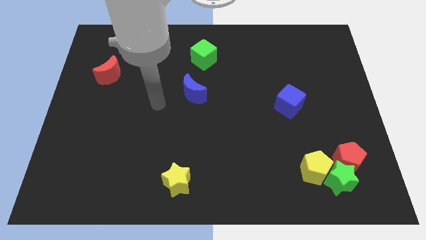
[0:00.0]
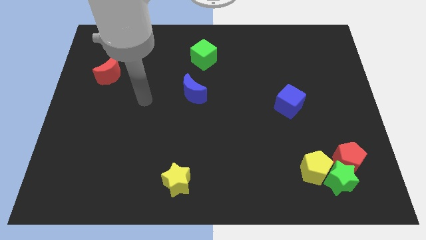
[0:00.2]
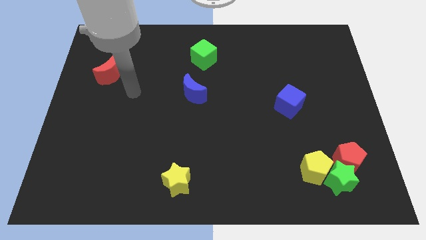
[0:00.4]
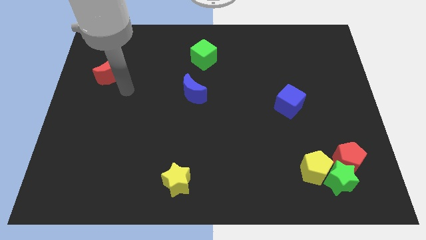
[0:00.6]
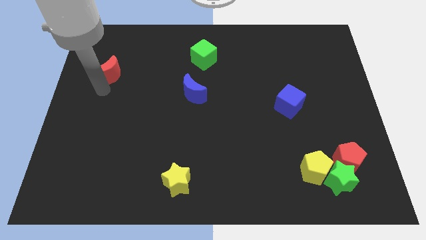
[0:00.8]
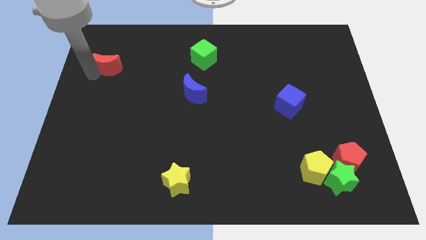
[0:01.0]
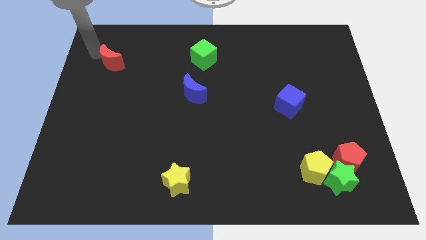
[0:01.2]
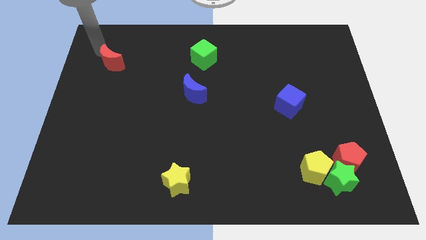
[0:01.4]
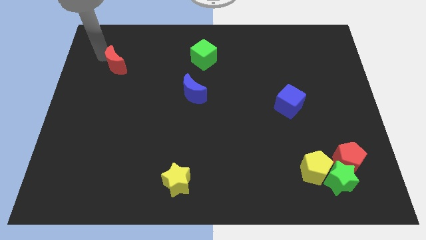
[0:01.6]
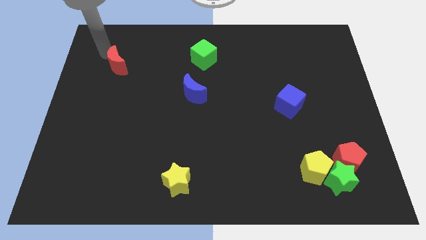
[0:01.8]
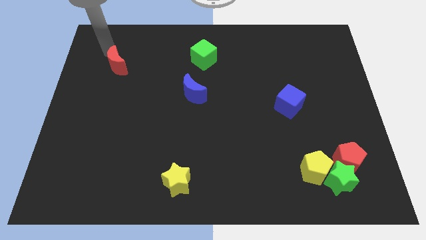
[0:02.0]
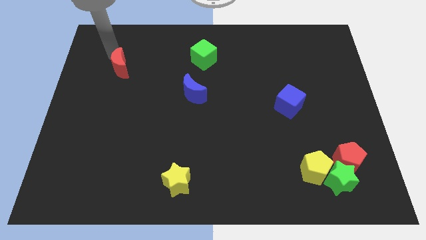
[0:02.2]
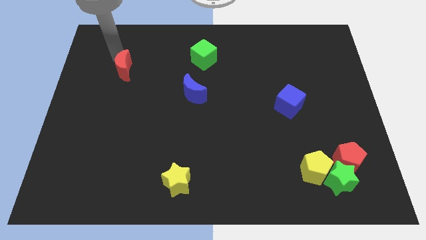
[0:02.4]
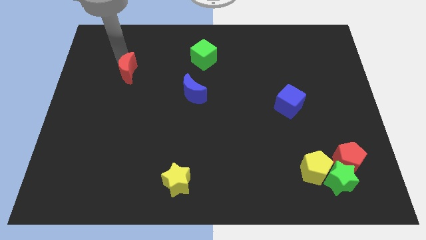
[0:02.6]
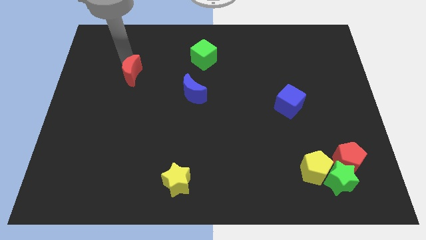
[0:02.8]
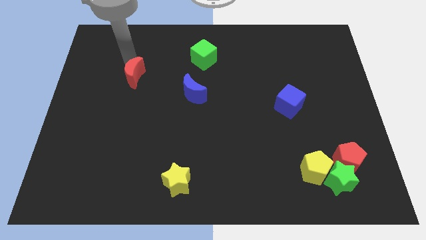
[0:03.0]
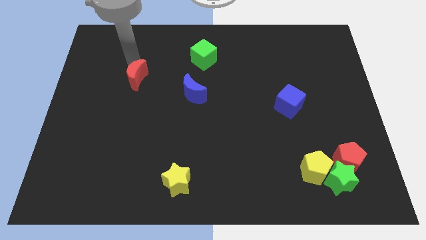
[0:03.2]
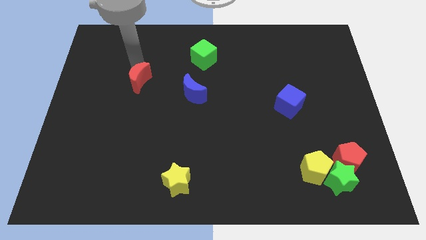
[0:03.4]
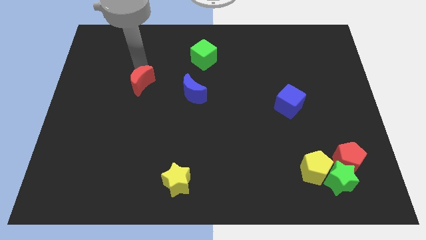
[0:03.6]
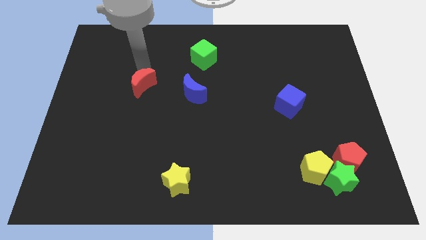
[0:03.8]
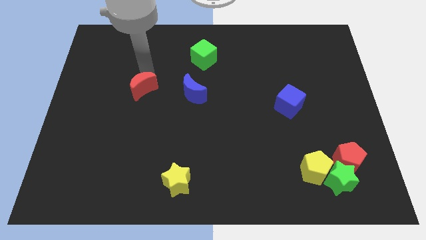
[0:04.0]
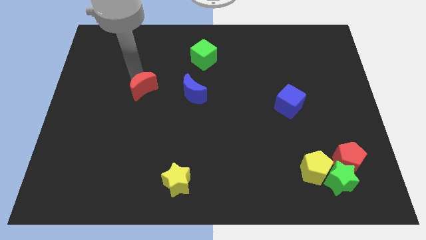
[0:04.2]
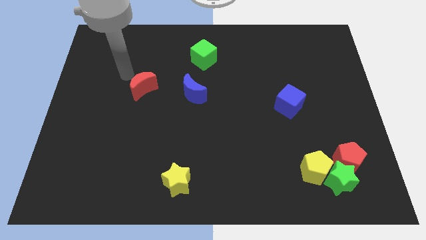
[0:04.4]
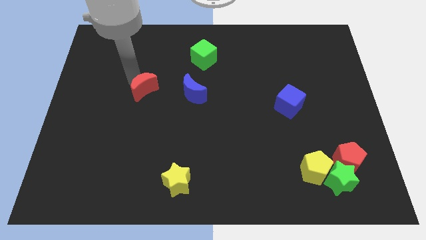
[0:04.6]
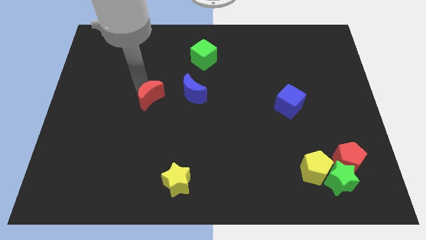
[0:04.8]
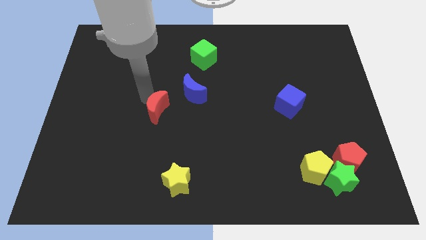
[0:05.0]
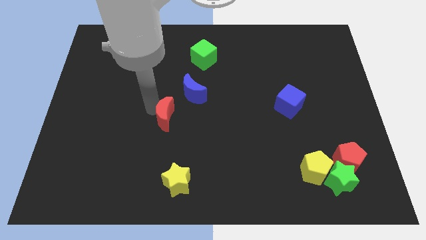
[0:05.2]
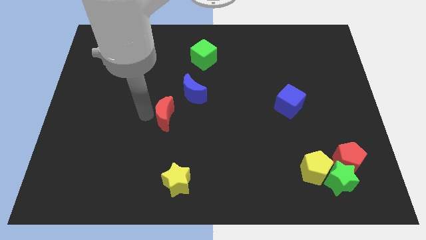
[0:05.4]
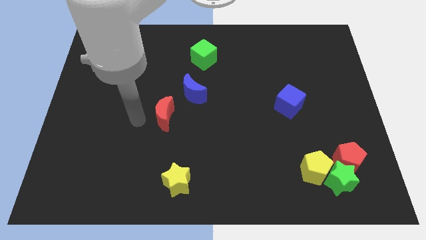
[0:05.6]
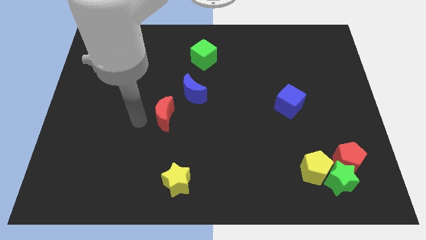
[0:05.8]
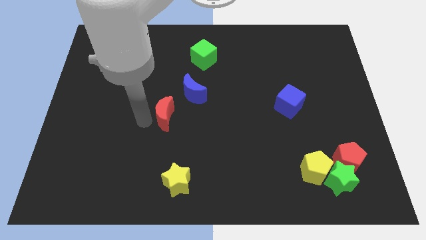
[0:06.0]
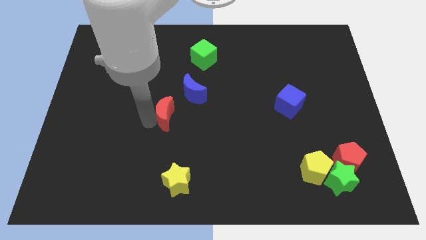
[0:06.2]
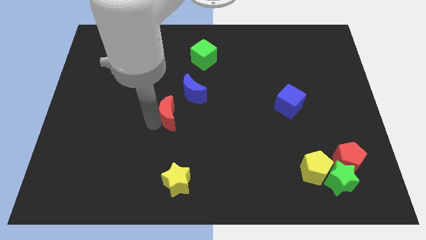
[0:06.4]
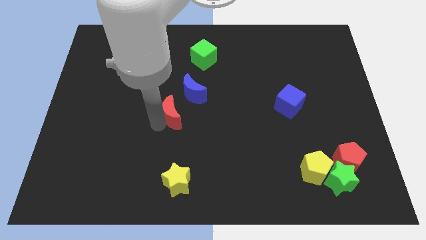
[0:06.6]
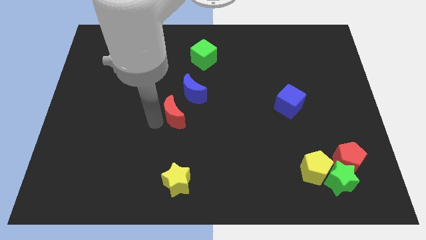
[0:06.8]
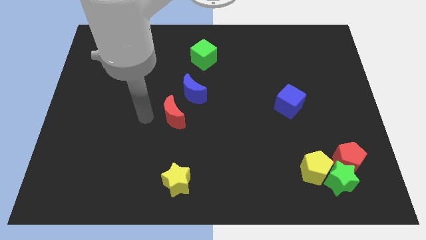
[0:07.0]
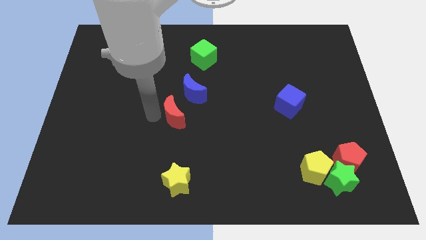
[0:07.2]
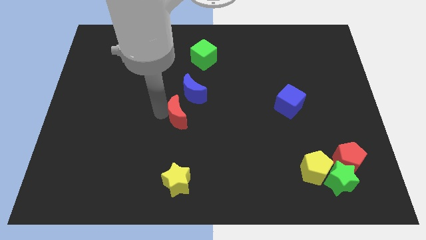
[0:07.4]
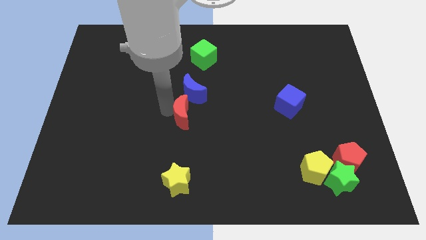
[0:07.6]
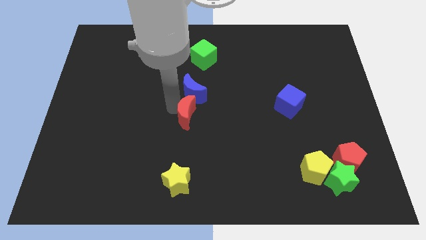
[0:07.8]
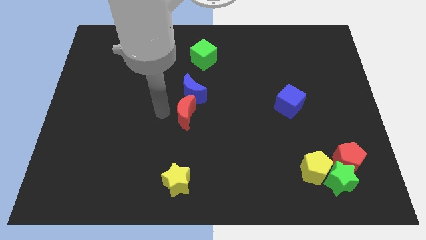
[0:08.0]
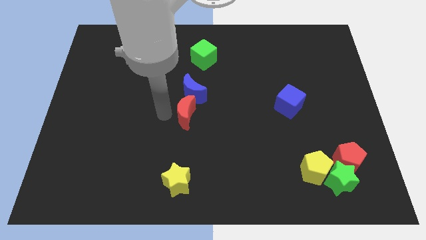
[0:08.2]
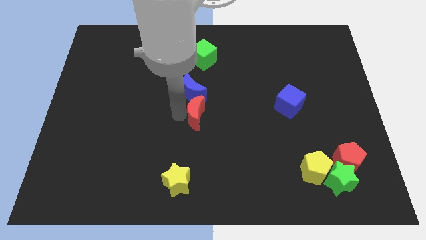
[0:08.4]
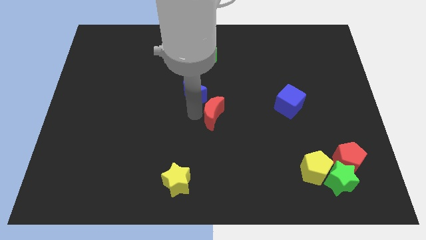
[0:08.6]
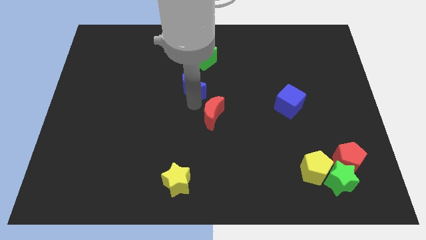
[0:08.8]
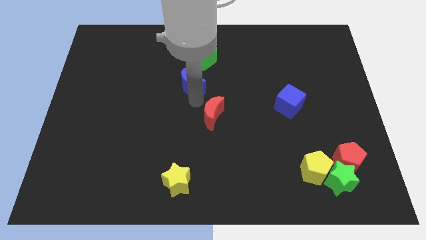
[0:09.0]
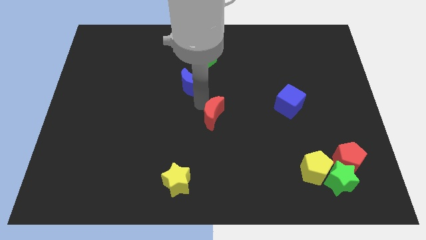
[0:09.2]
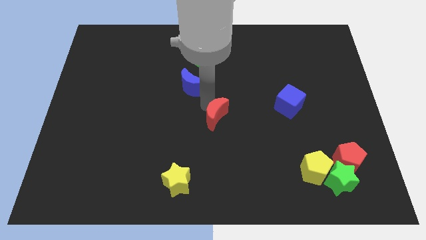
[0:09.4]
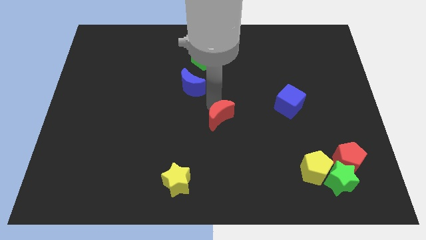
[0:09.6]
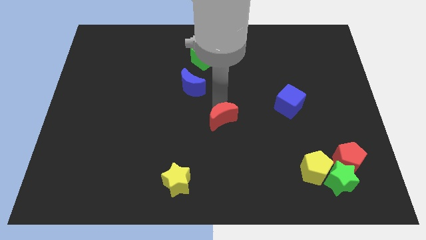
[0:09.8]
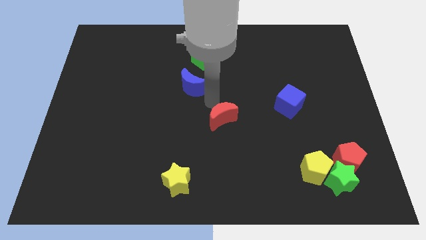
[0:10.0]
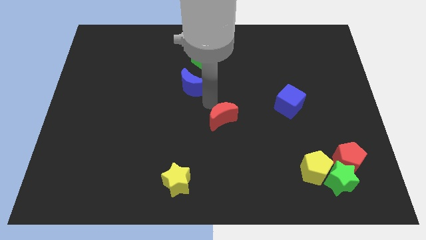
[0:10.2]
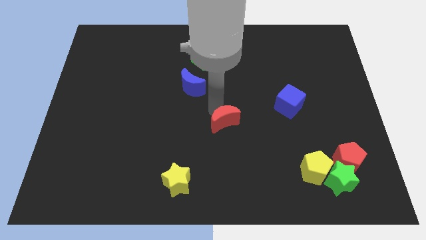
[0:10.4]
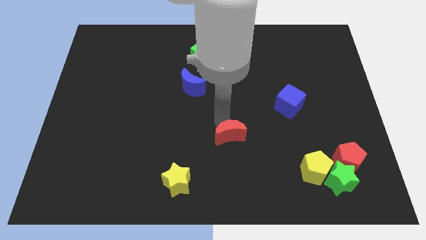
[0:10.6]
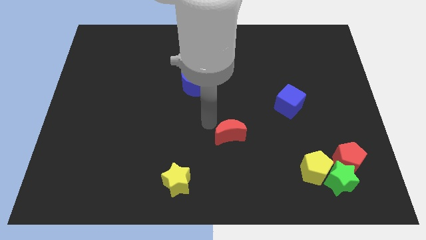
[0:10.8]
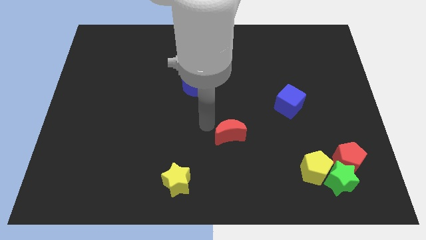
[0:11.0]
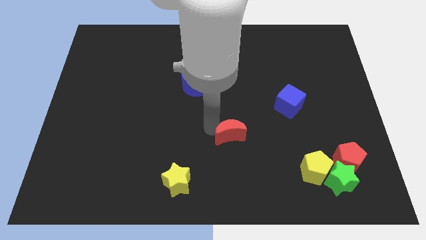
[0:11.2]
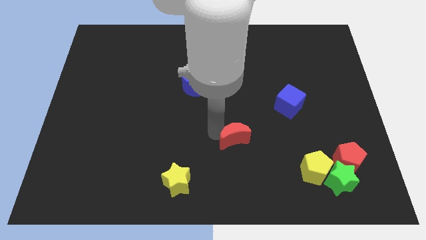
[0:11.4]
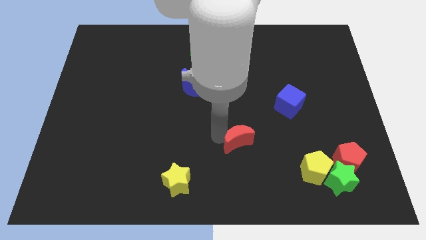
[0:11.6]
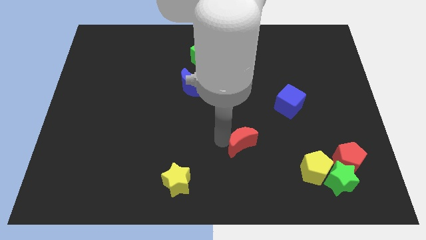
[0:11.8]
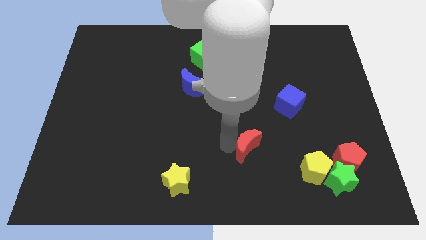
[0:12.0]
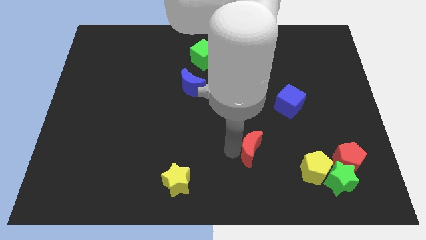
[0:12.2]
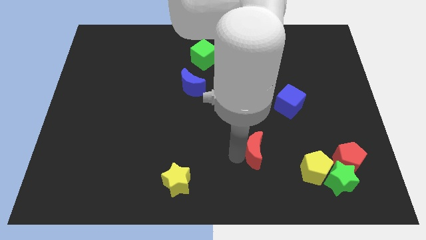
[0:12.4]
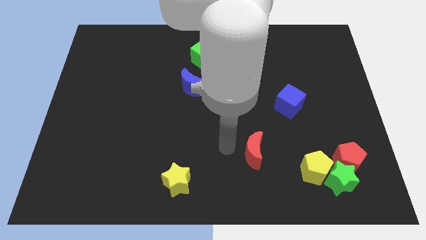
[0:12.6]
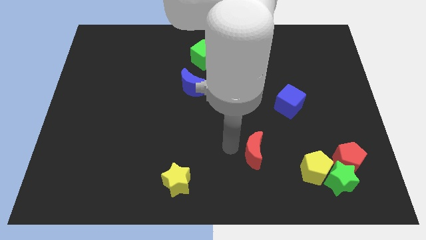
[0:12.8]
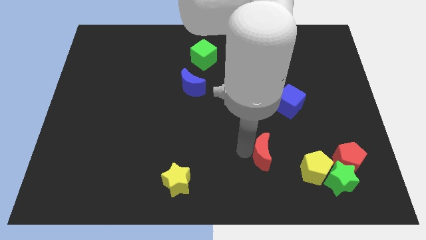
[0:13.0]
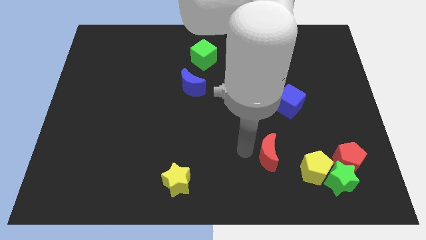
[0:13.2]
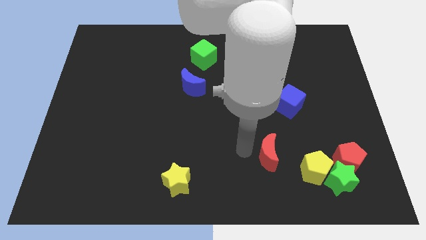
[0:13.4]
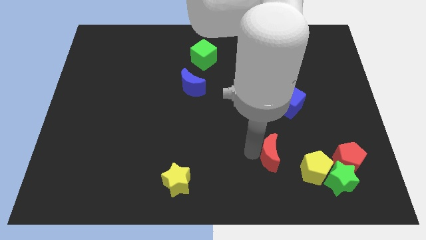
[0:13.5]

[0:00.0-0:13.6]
push the red moon just left of the red pentagon
